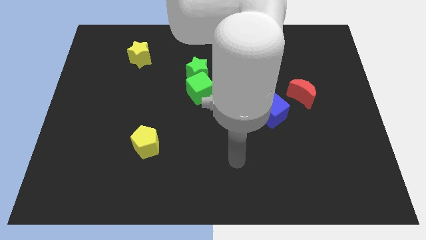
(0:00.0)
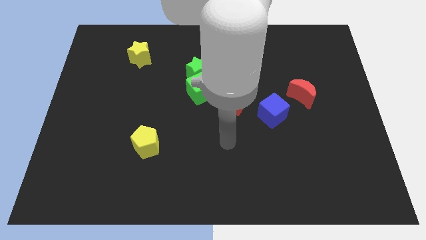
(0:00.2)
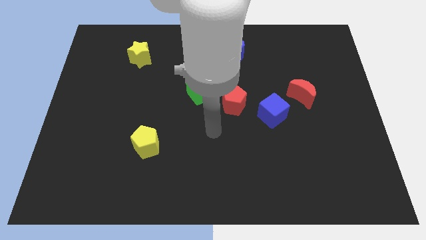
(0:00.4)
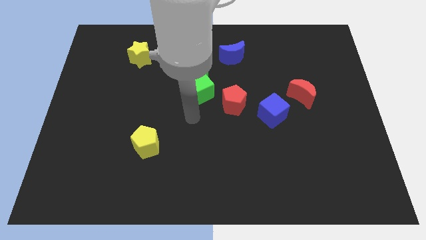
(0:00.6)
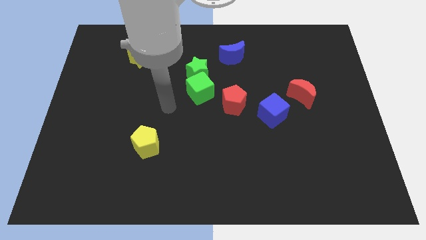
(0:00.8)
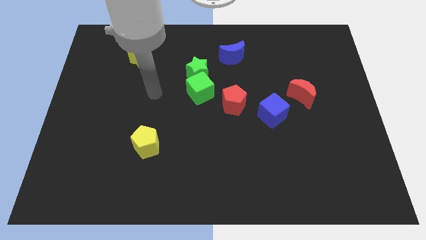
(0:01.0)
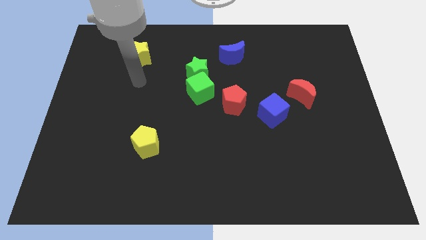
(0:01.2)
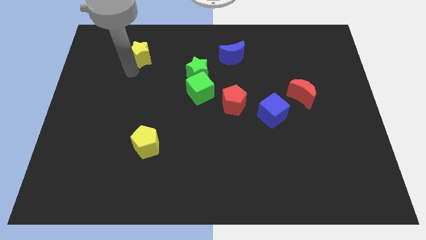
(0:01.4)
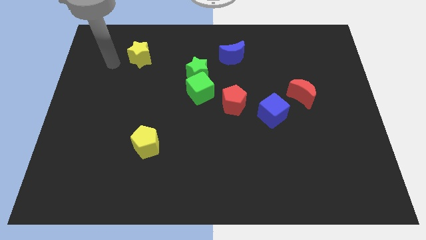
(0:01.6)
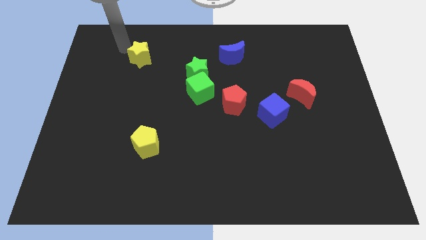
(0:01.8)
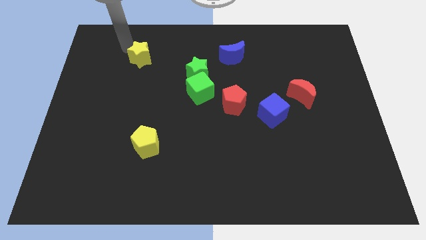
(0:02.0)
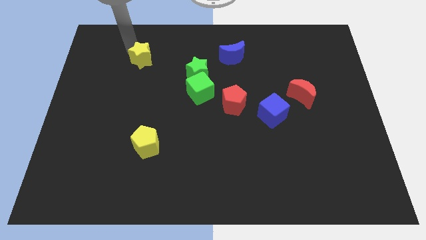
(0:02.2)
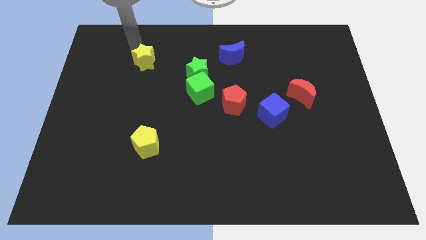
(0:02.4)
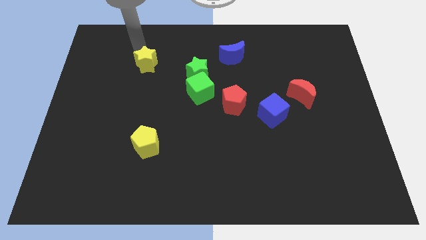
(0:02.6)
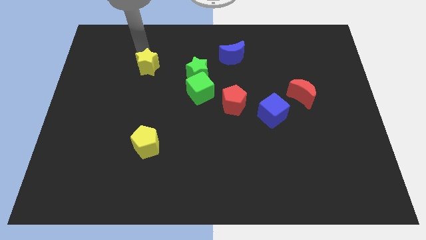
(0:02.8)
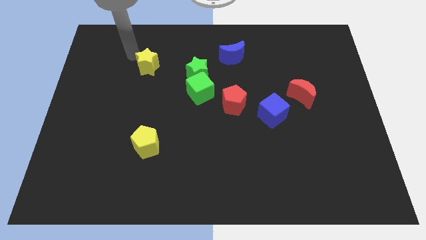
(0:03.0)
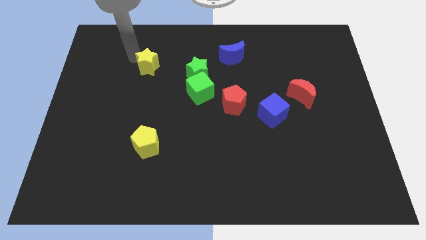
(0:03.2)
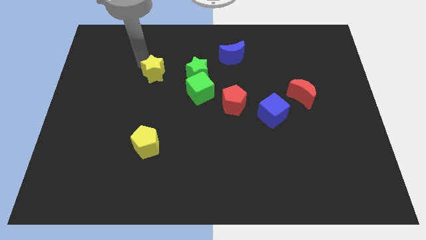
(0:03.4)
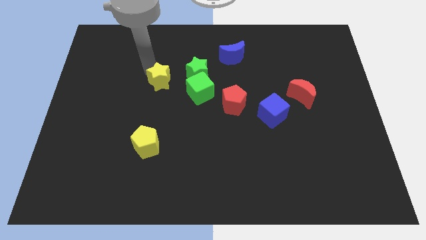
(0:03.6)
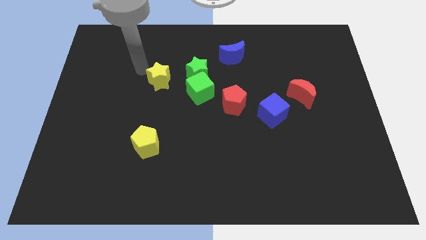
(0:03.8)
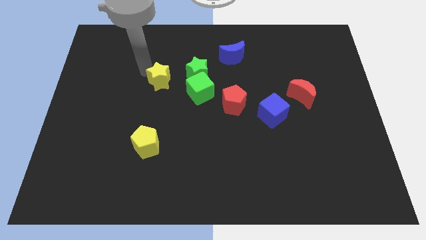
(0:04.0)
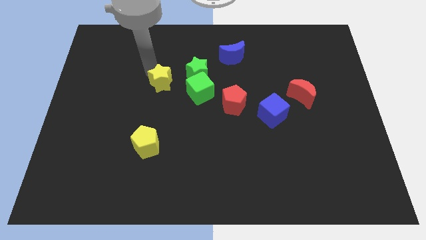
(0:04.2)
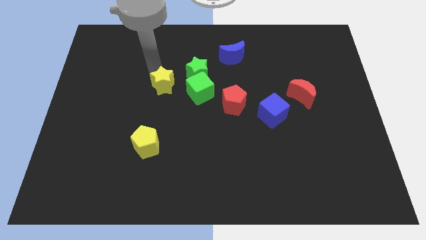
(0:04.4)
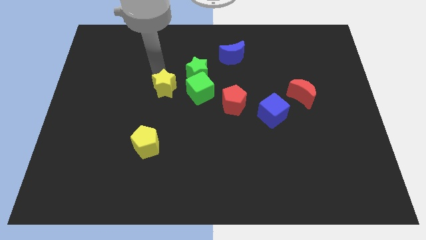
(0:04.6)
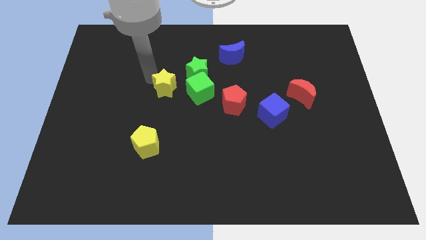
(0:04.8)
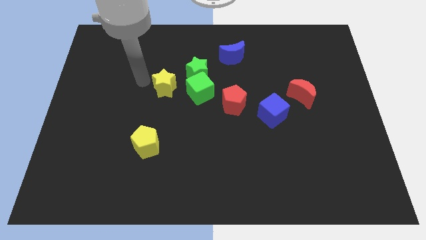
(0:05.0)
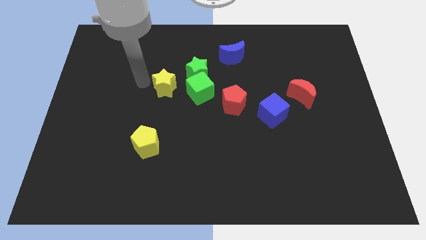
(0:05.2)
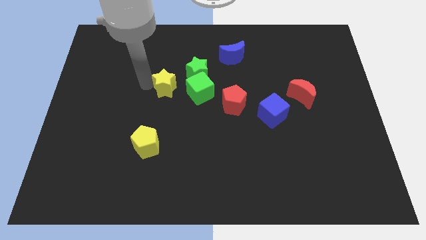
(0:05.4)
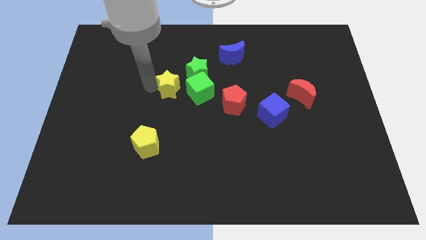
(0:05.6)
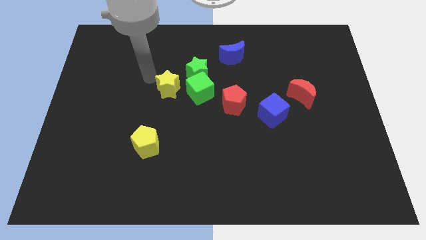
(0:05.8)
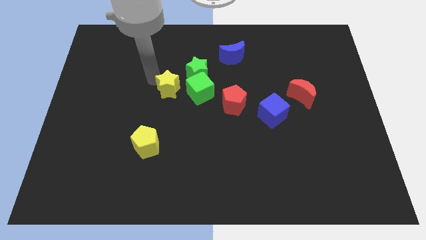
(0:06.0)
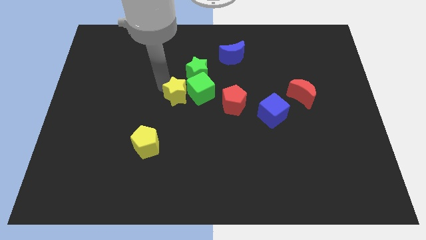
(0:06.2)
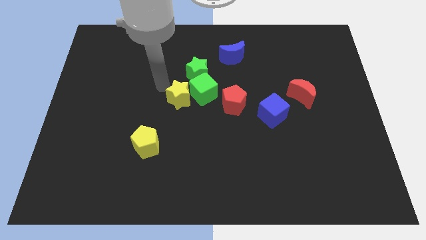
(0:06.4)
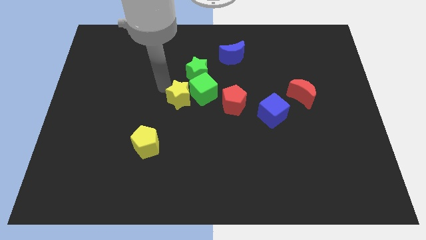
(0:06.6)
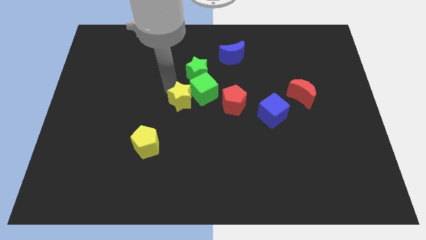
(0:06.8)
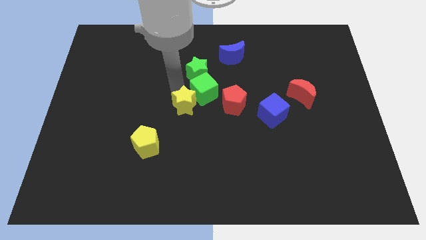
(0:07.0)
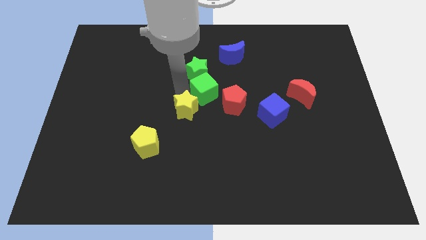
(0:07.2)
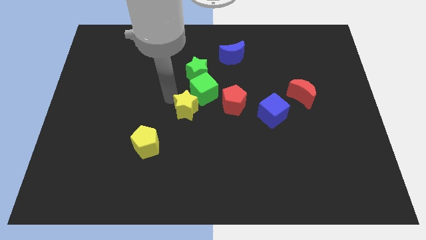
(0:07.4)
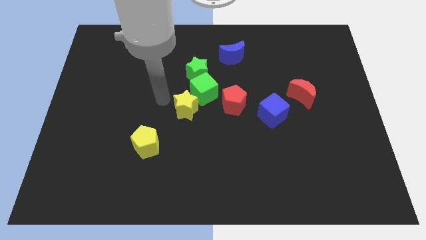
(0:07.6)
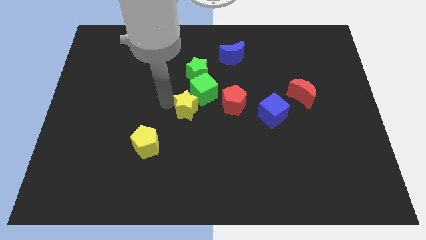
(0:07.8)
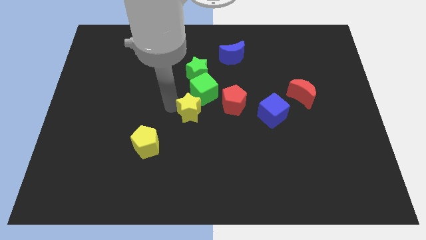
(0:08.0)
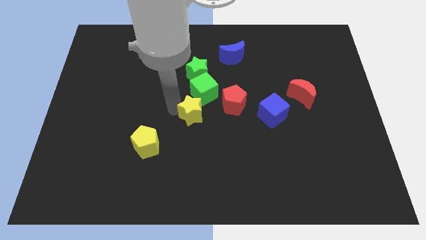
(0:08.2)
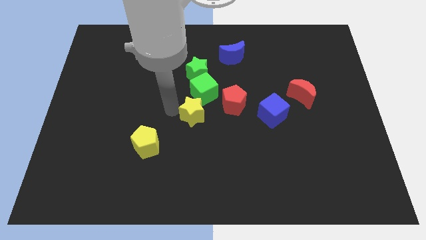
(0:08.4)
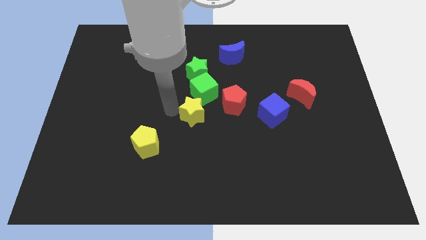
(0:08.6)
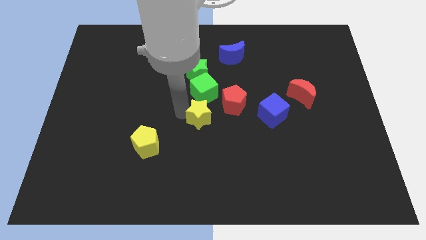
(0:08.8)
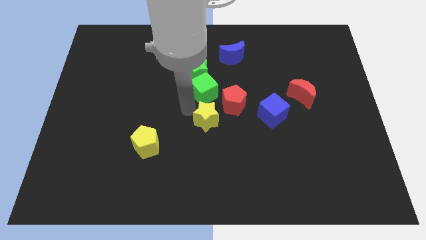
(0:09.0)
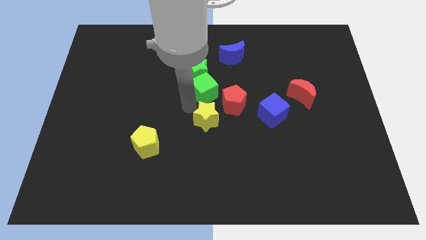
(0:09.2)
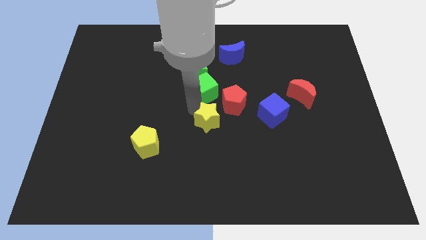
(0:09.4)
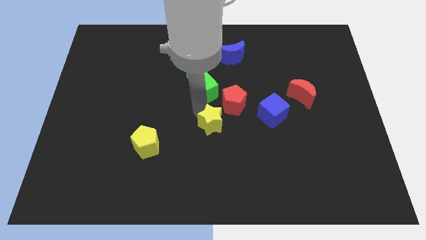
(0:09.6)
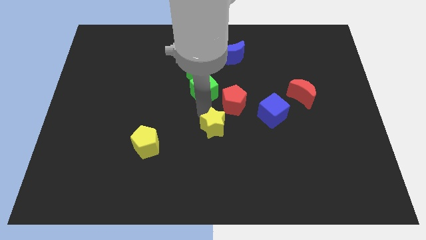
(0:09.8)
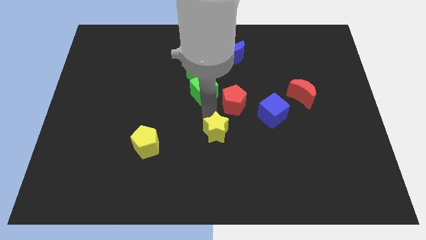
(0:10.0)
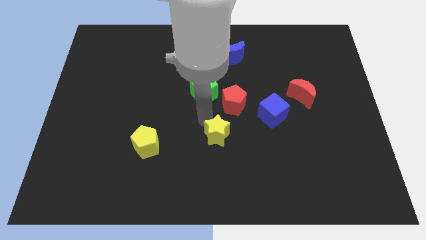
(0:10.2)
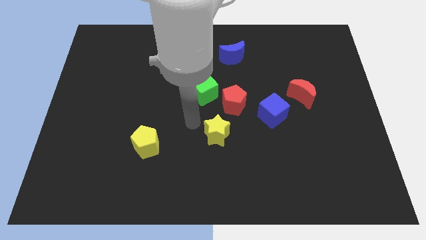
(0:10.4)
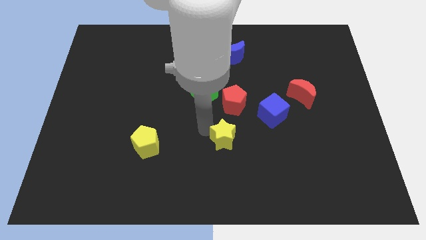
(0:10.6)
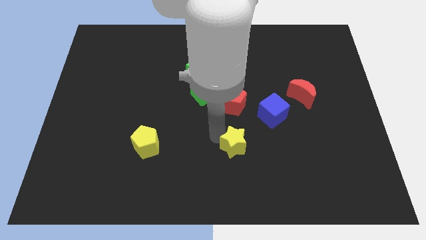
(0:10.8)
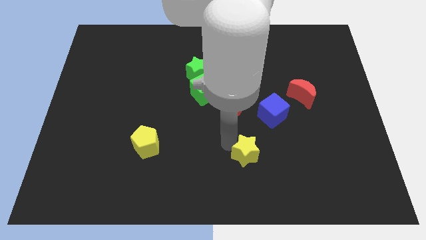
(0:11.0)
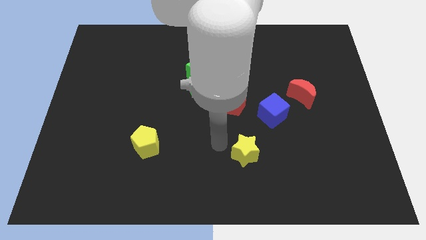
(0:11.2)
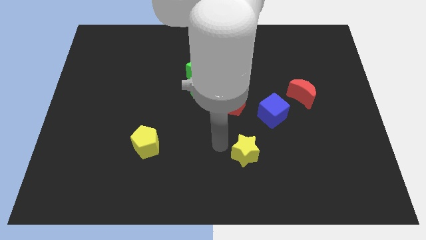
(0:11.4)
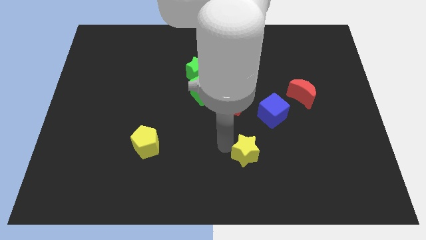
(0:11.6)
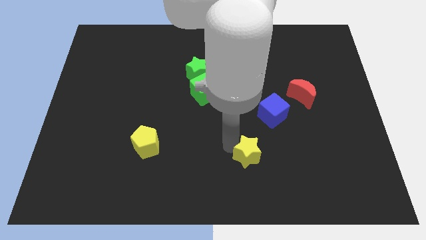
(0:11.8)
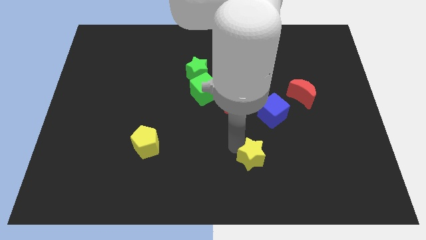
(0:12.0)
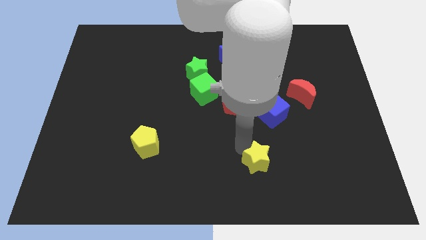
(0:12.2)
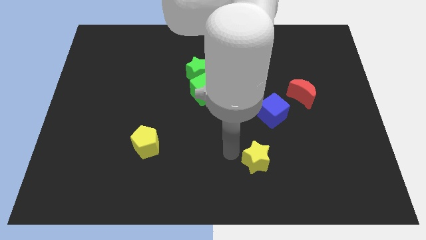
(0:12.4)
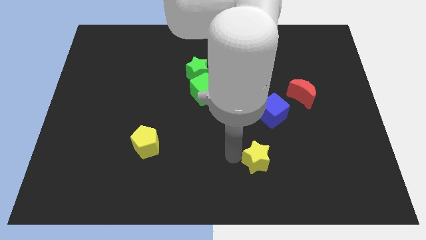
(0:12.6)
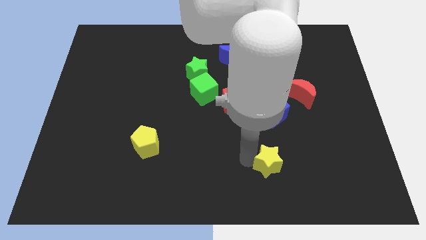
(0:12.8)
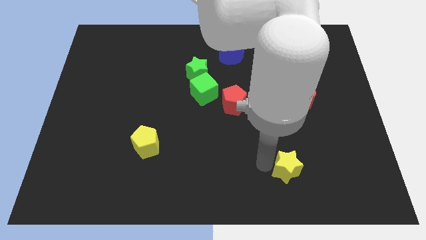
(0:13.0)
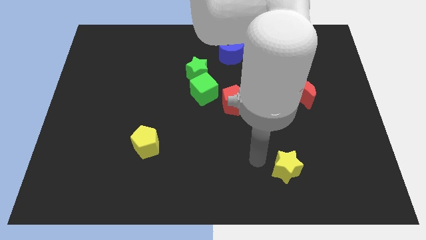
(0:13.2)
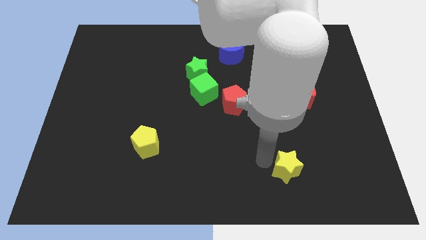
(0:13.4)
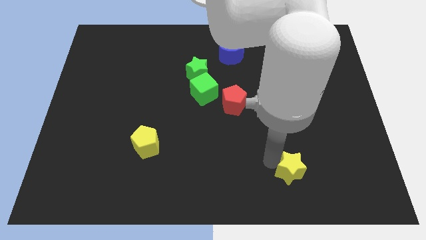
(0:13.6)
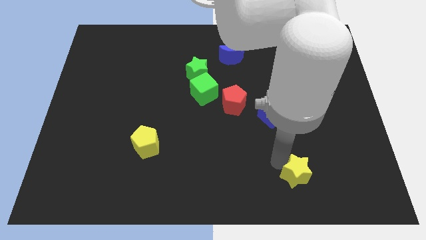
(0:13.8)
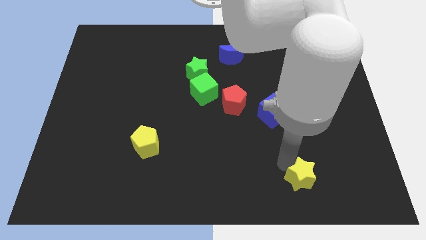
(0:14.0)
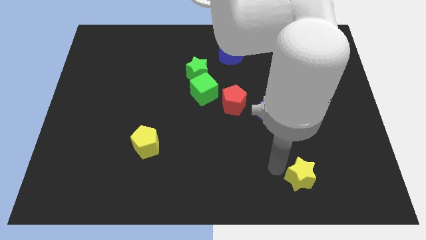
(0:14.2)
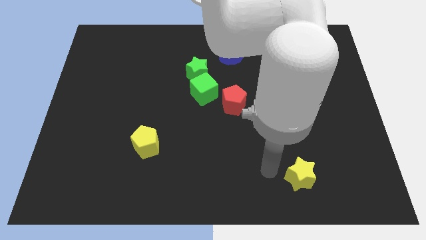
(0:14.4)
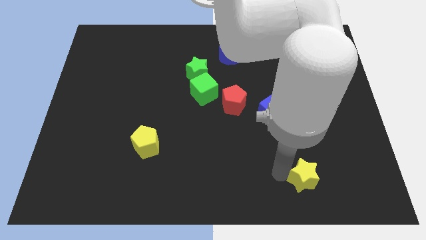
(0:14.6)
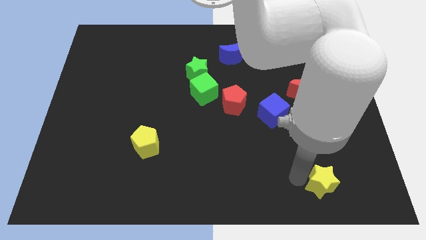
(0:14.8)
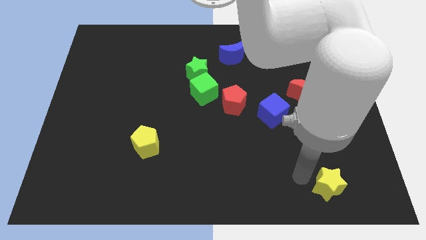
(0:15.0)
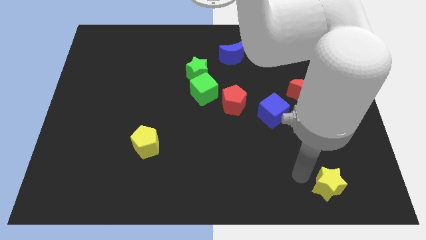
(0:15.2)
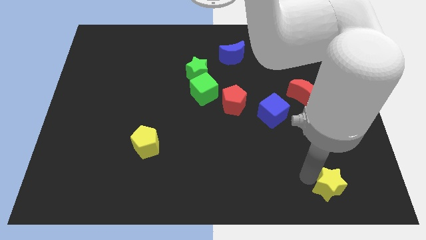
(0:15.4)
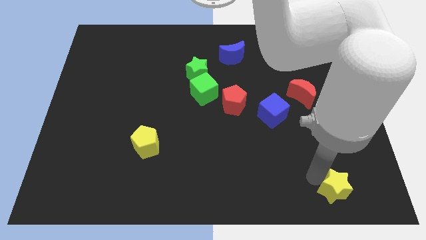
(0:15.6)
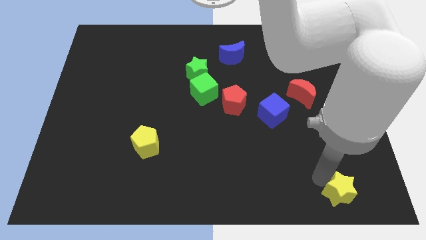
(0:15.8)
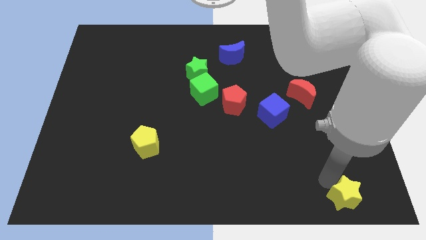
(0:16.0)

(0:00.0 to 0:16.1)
push the yellow star to the bottom right
